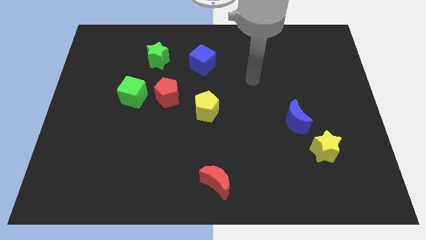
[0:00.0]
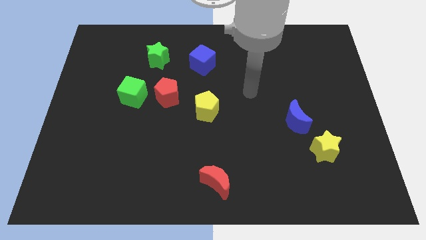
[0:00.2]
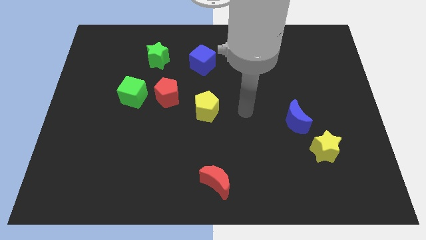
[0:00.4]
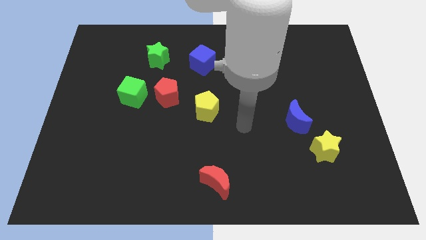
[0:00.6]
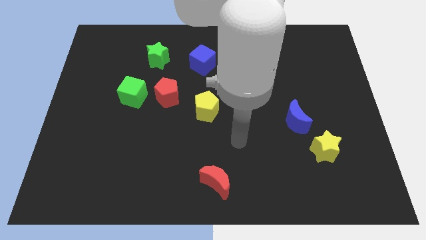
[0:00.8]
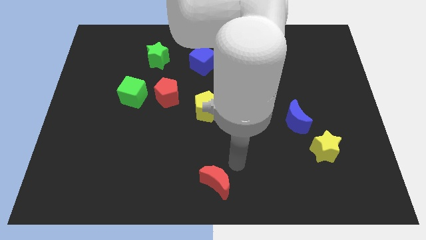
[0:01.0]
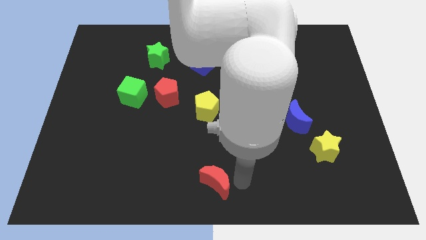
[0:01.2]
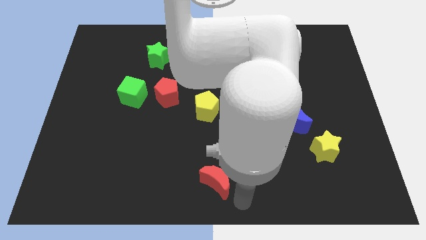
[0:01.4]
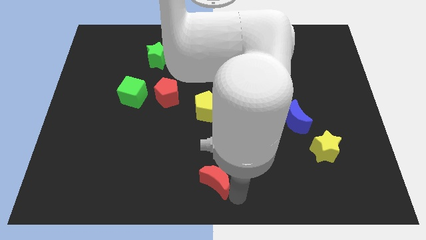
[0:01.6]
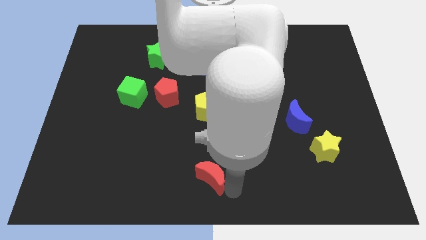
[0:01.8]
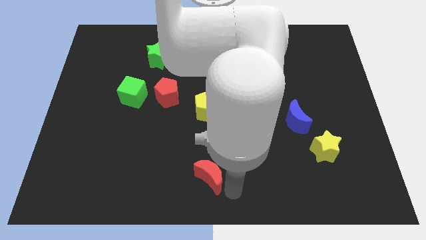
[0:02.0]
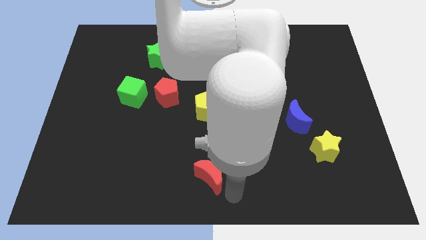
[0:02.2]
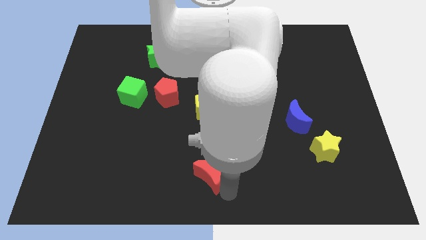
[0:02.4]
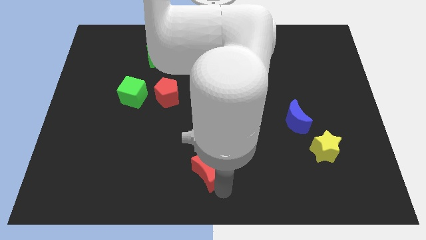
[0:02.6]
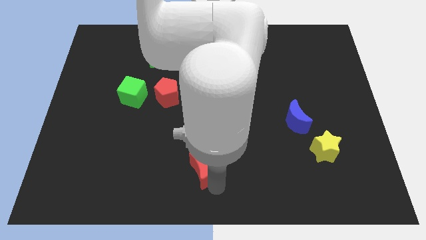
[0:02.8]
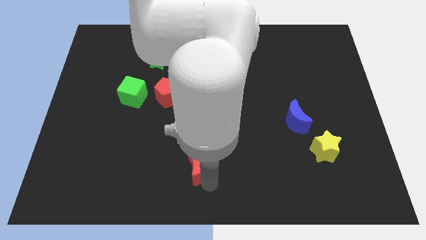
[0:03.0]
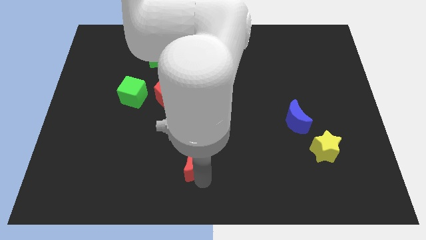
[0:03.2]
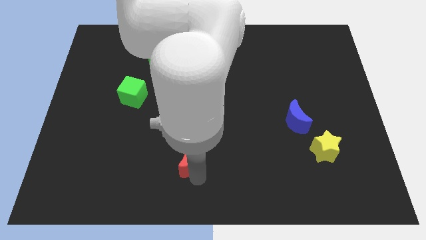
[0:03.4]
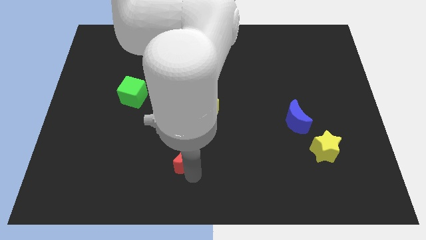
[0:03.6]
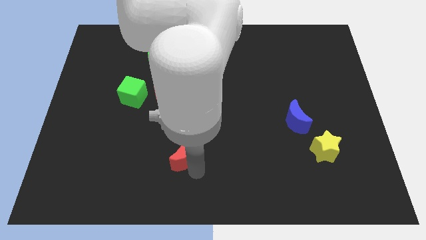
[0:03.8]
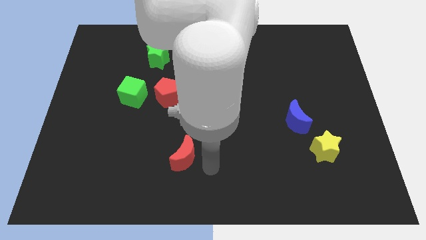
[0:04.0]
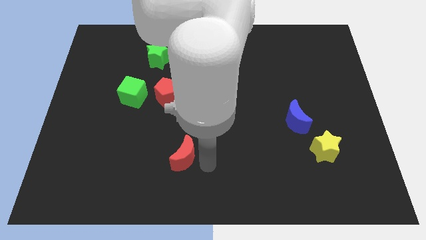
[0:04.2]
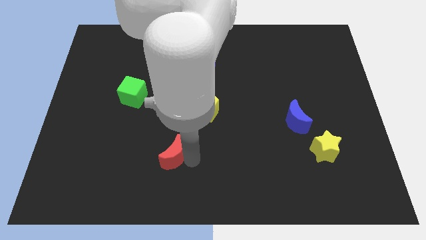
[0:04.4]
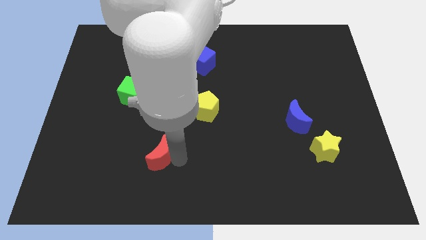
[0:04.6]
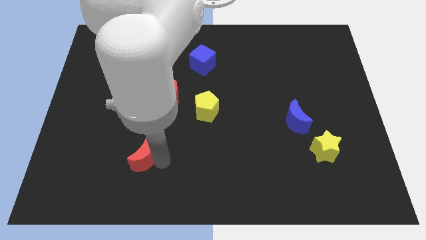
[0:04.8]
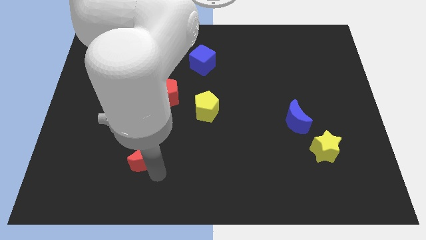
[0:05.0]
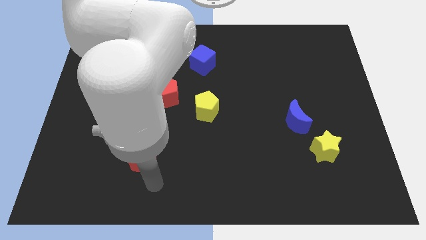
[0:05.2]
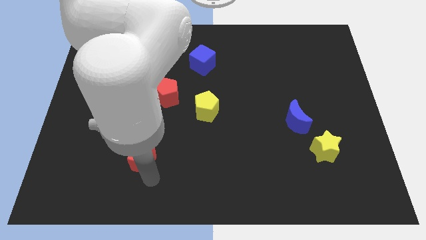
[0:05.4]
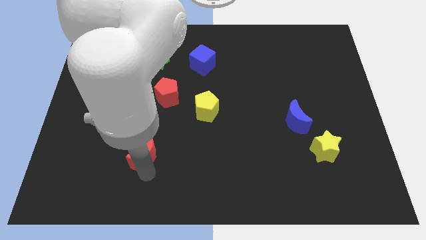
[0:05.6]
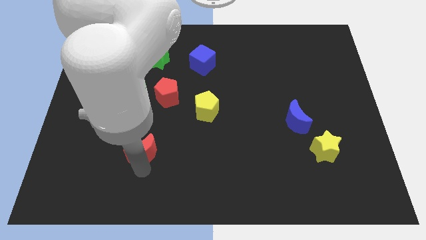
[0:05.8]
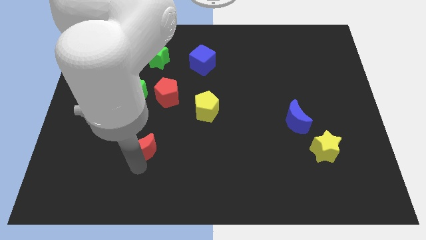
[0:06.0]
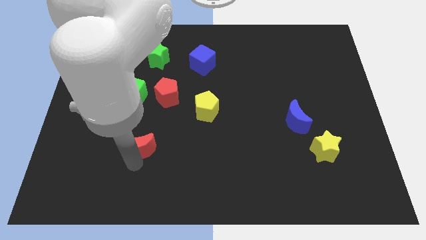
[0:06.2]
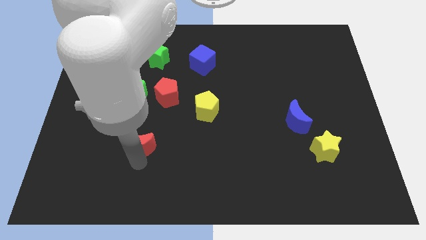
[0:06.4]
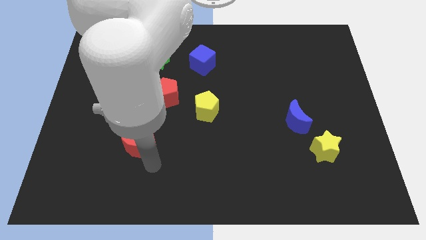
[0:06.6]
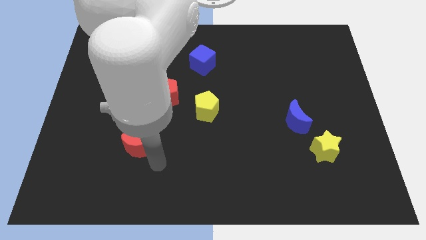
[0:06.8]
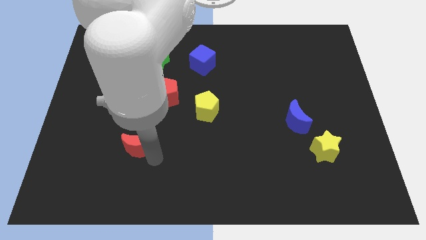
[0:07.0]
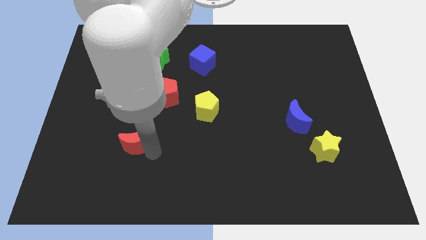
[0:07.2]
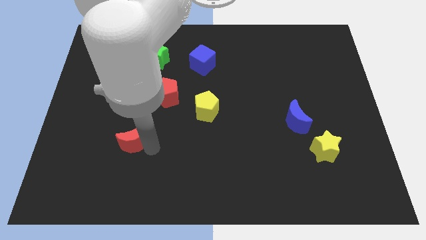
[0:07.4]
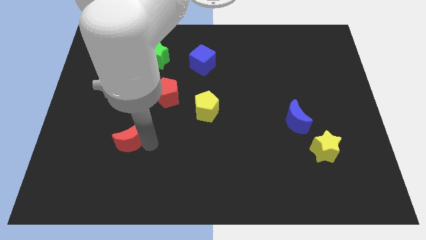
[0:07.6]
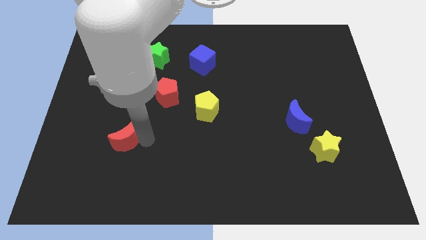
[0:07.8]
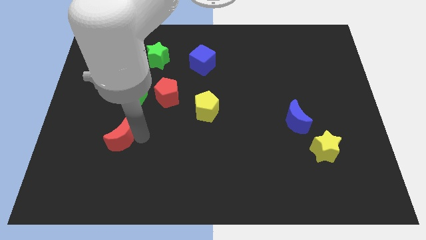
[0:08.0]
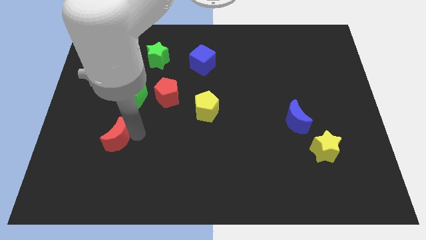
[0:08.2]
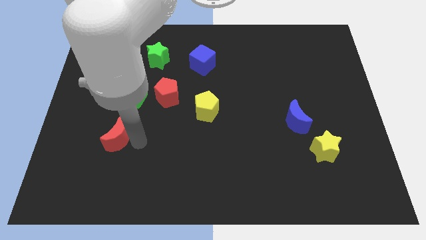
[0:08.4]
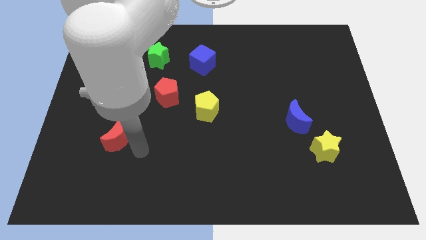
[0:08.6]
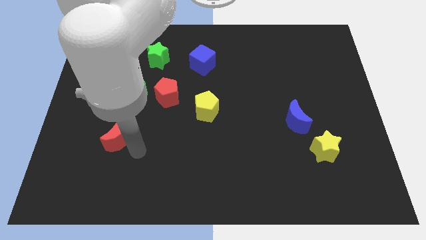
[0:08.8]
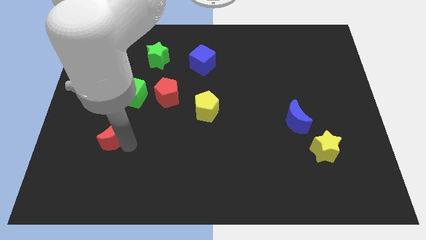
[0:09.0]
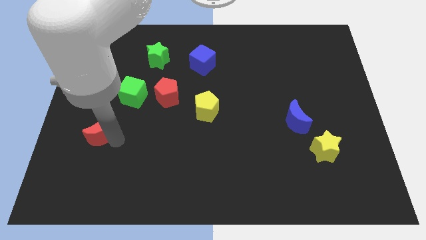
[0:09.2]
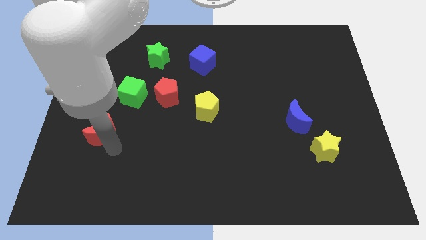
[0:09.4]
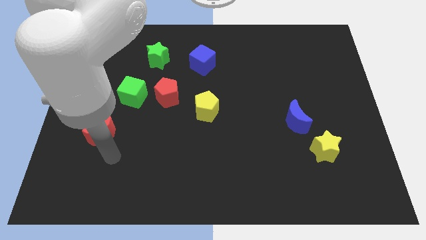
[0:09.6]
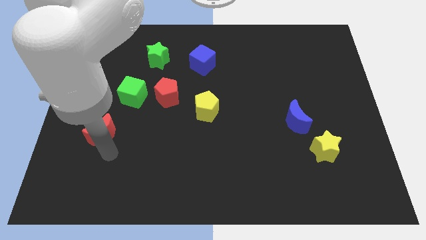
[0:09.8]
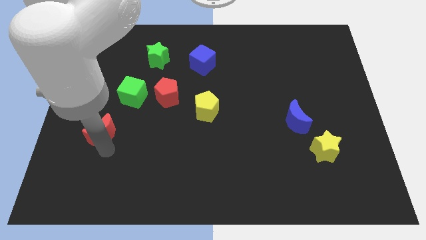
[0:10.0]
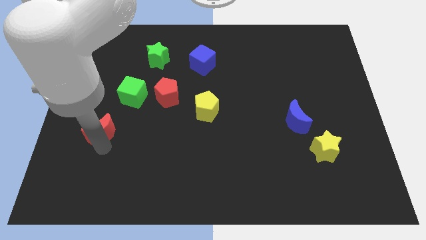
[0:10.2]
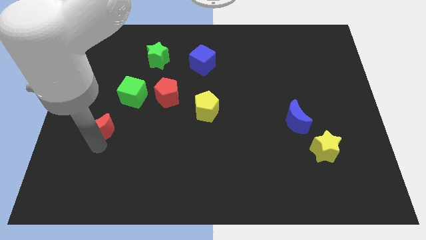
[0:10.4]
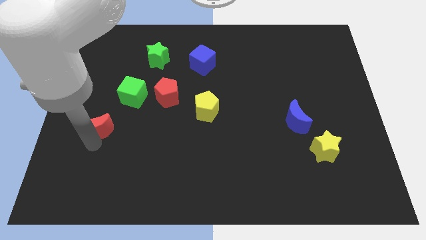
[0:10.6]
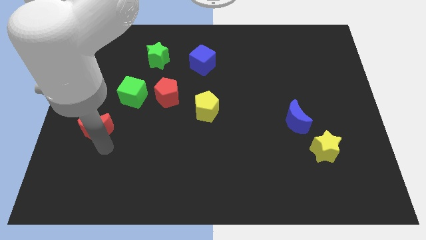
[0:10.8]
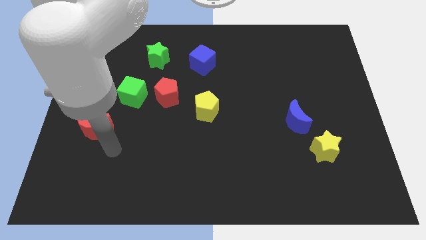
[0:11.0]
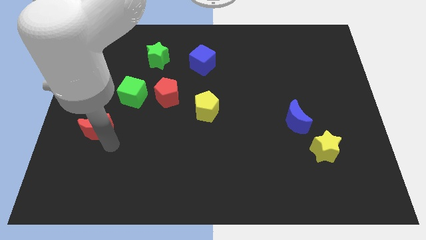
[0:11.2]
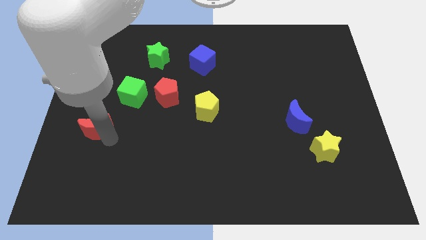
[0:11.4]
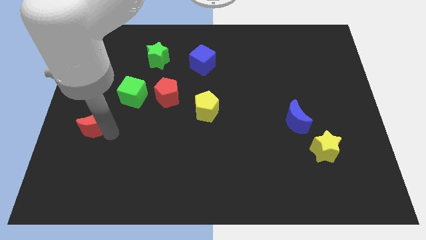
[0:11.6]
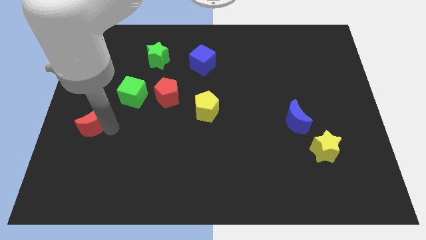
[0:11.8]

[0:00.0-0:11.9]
slide the red moon to the left side of the board

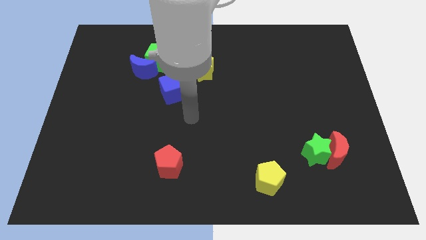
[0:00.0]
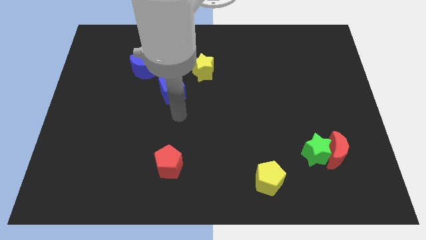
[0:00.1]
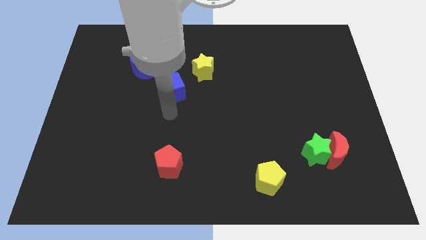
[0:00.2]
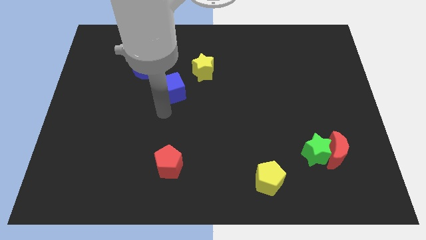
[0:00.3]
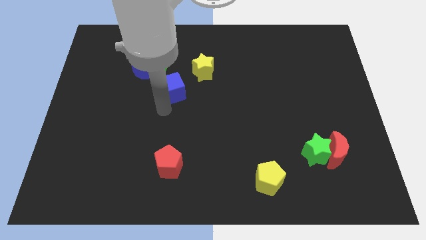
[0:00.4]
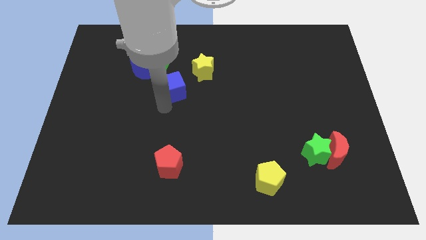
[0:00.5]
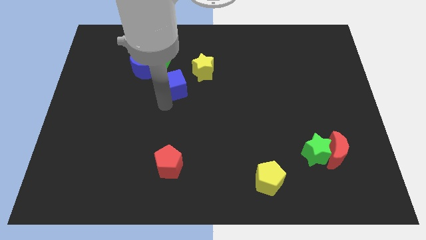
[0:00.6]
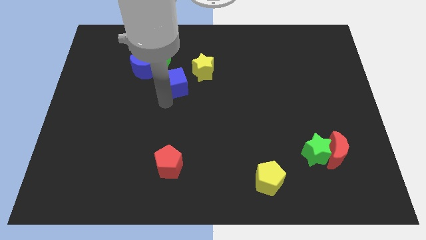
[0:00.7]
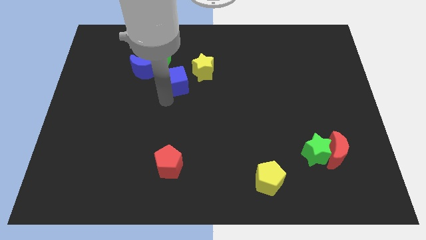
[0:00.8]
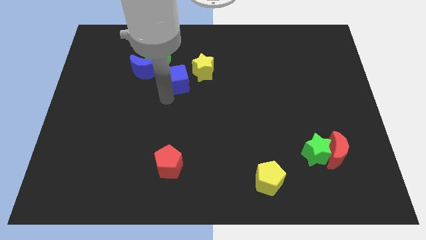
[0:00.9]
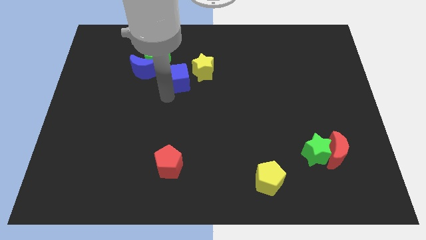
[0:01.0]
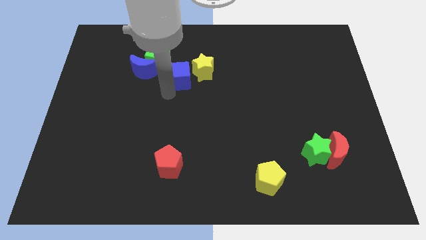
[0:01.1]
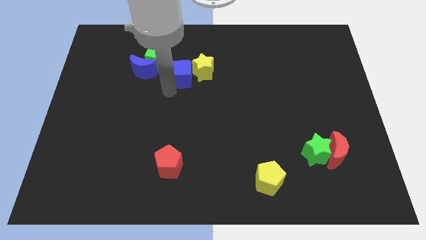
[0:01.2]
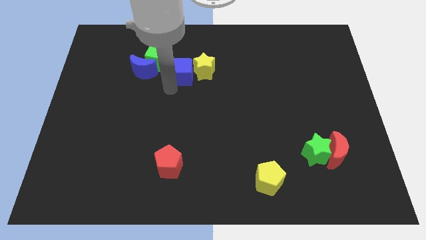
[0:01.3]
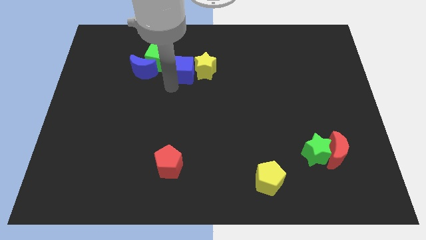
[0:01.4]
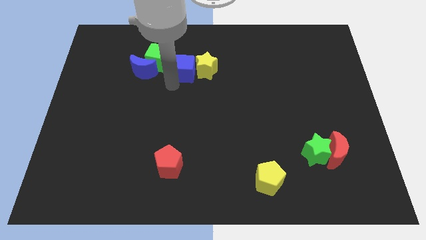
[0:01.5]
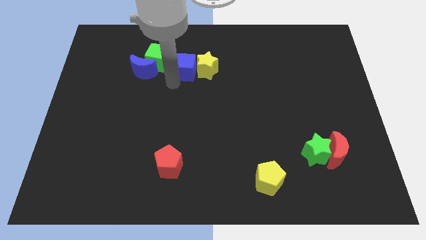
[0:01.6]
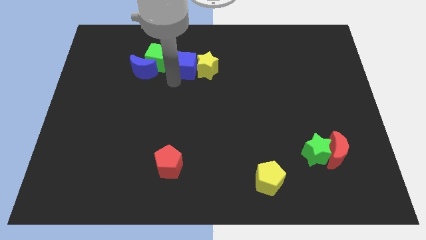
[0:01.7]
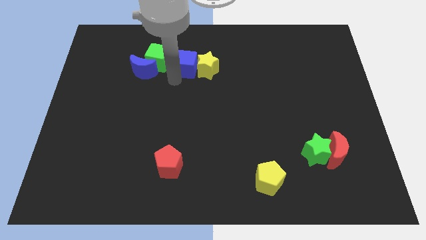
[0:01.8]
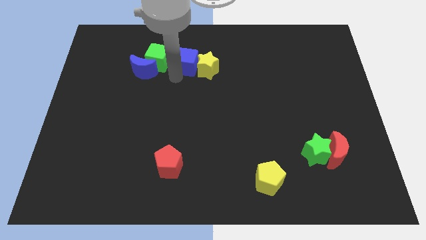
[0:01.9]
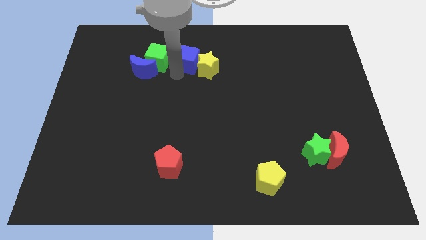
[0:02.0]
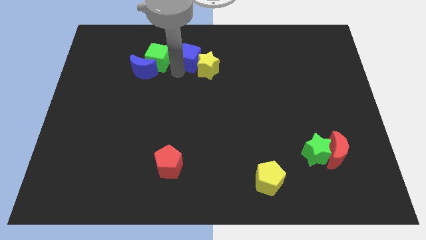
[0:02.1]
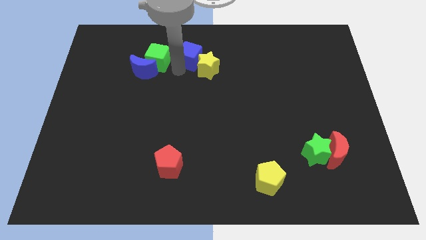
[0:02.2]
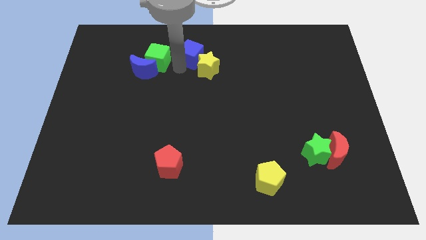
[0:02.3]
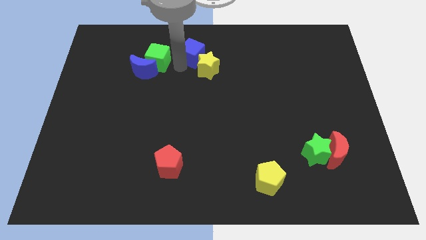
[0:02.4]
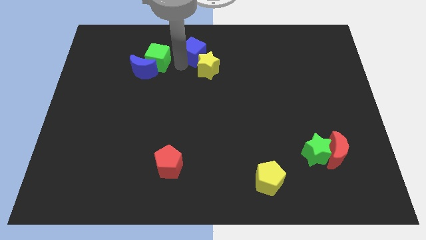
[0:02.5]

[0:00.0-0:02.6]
put the blue cube to the top side
